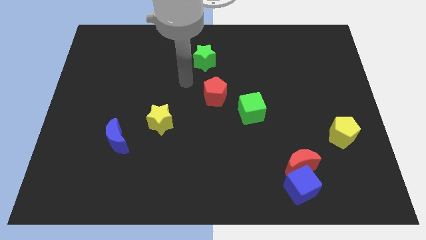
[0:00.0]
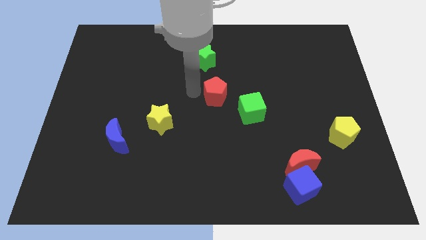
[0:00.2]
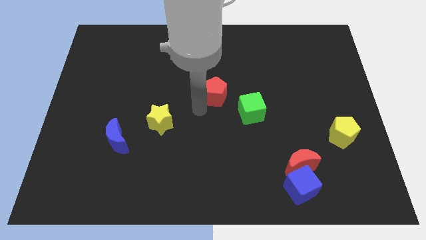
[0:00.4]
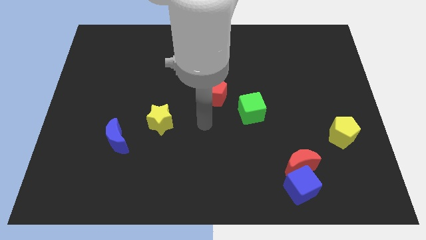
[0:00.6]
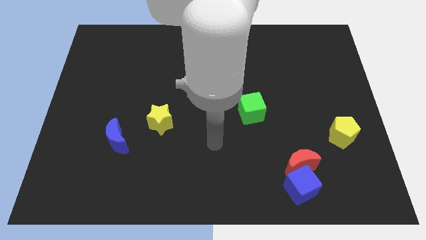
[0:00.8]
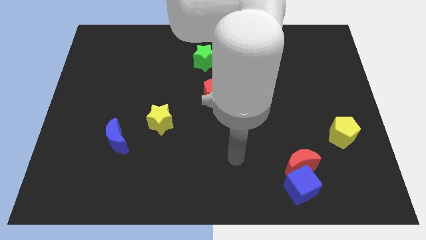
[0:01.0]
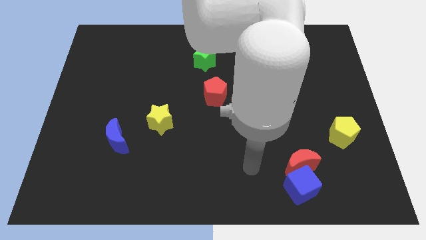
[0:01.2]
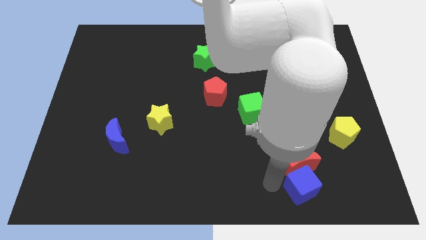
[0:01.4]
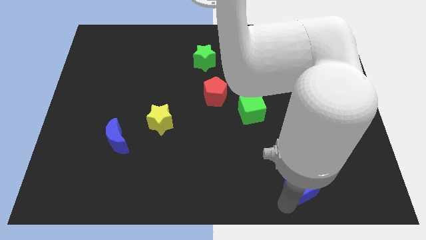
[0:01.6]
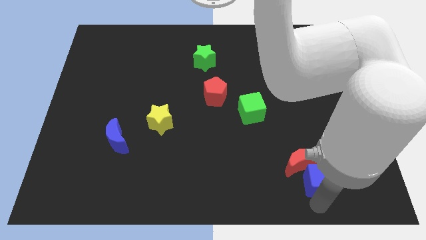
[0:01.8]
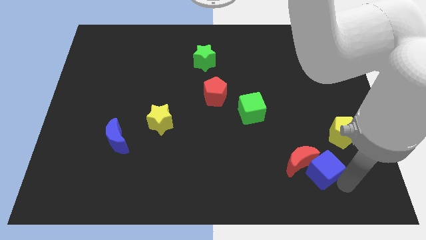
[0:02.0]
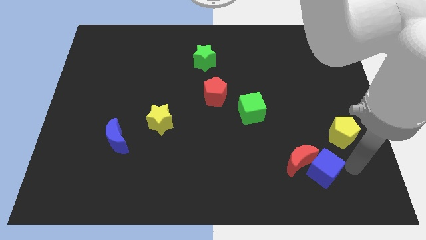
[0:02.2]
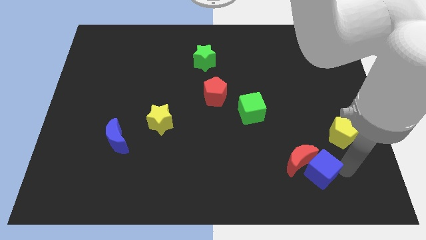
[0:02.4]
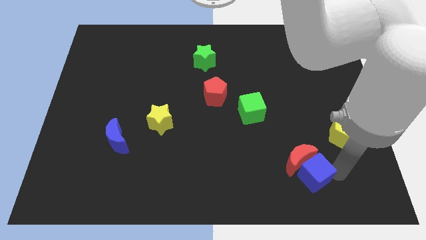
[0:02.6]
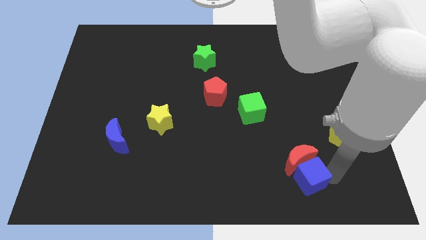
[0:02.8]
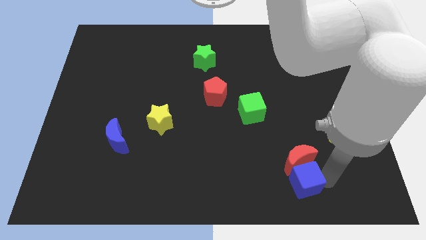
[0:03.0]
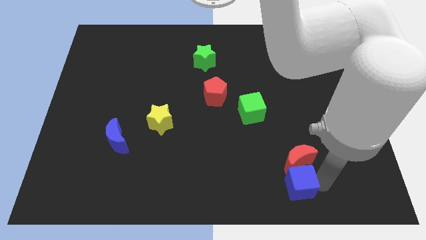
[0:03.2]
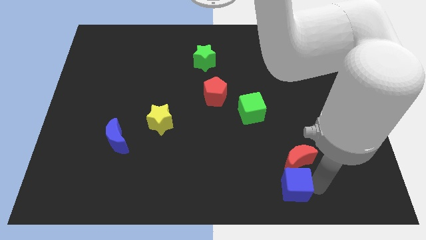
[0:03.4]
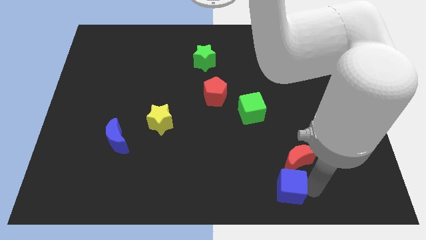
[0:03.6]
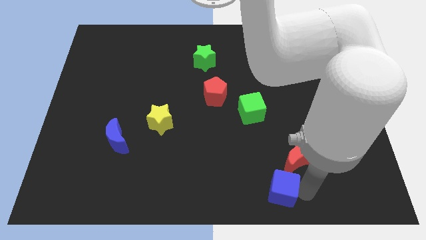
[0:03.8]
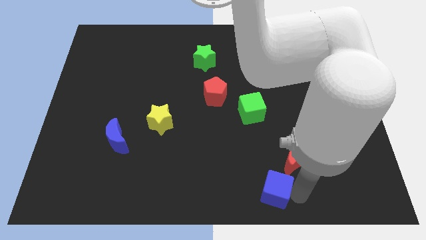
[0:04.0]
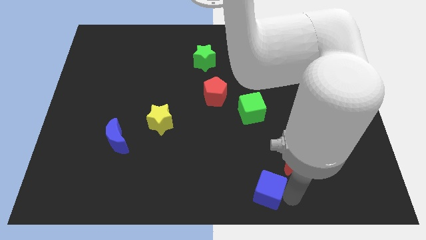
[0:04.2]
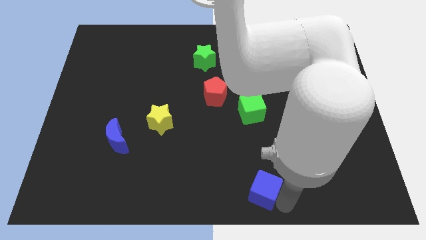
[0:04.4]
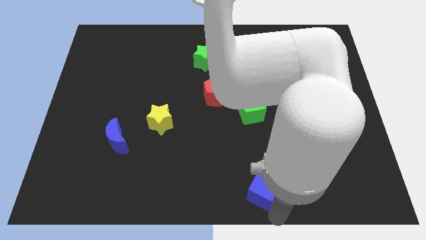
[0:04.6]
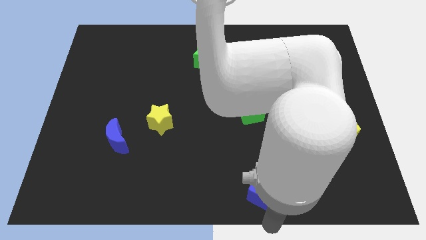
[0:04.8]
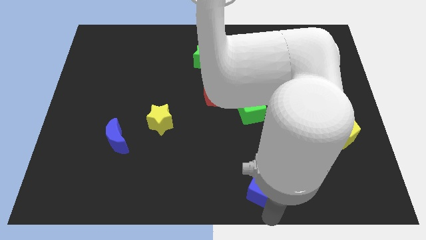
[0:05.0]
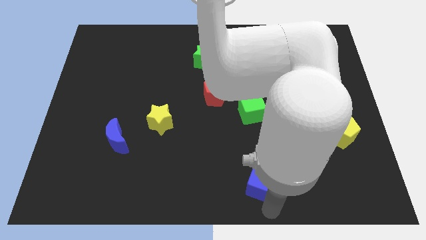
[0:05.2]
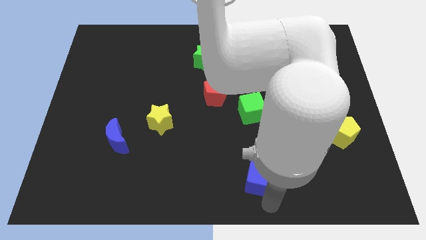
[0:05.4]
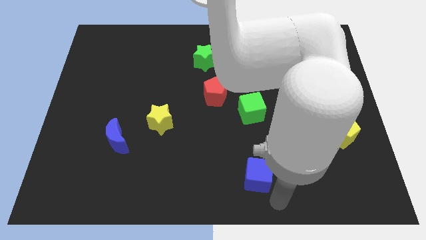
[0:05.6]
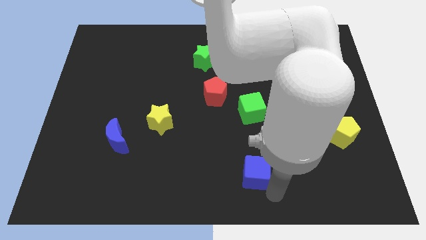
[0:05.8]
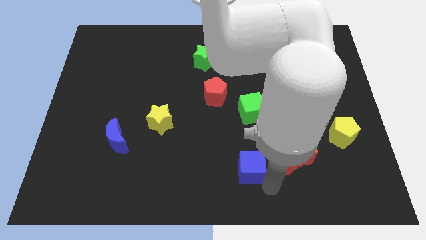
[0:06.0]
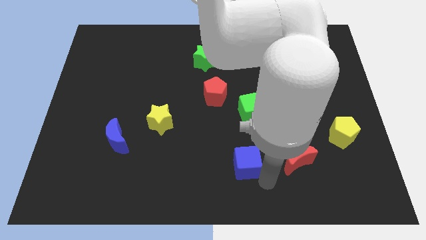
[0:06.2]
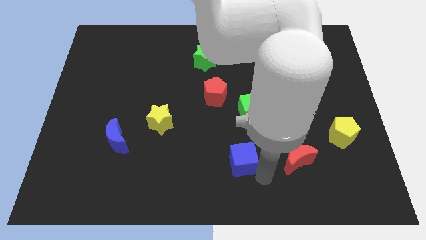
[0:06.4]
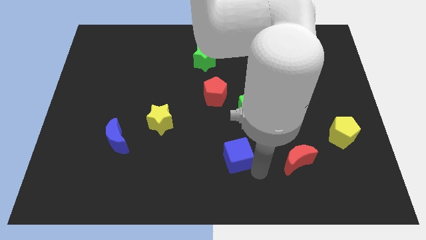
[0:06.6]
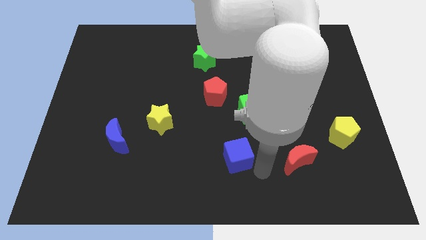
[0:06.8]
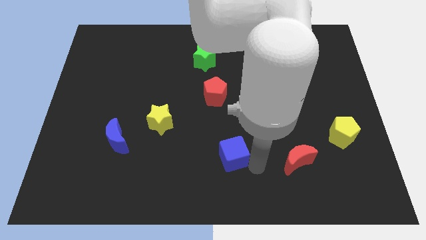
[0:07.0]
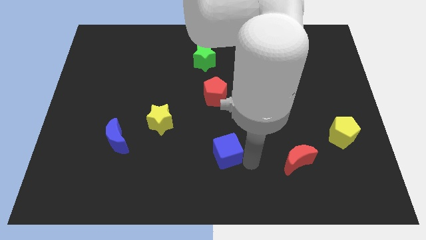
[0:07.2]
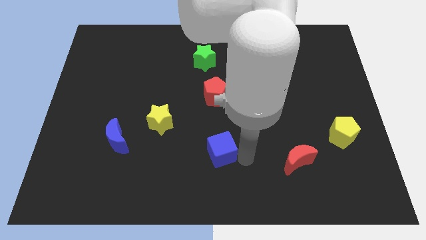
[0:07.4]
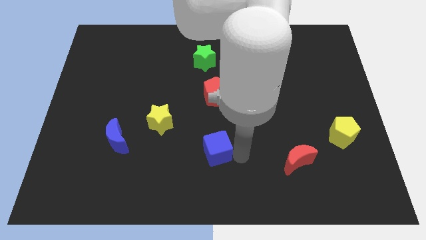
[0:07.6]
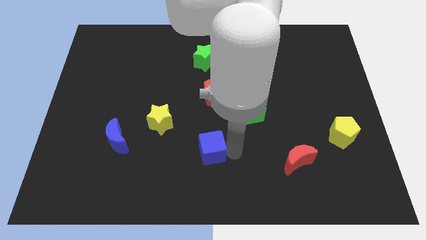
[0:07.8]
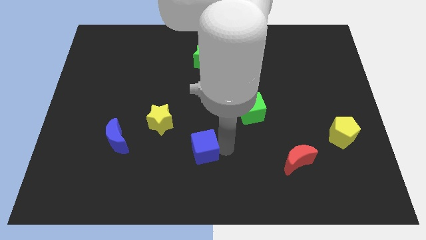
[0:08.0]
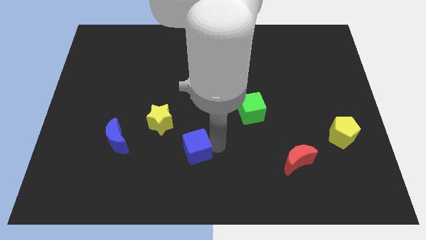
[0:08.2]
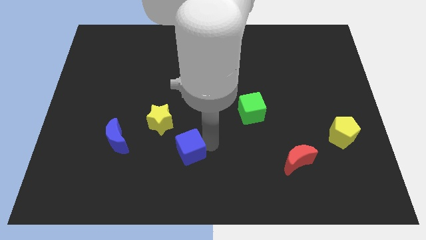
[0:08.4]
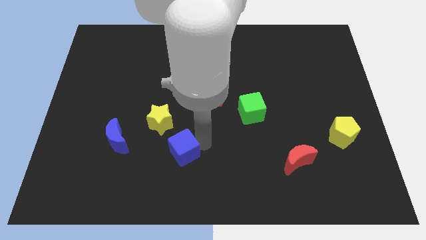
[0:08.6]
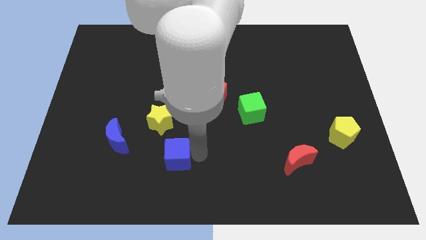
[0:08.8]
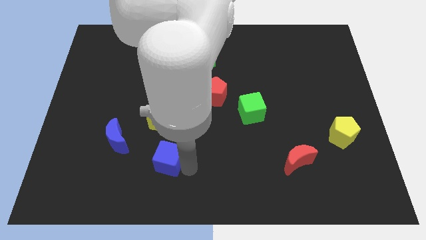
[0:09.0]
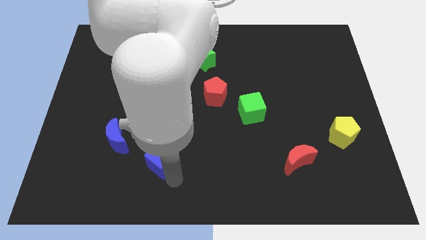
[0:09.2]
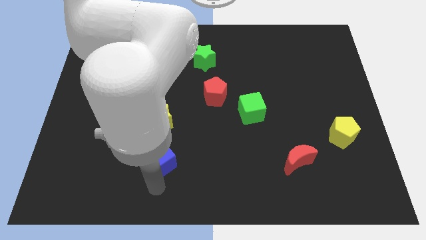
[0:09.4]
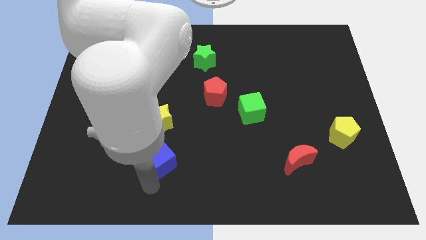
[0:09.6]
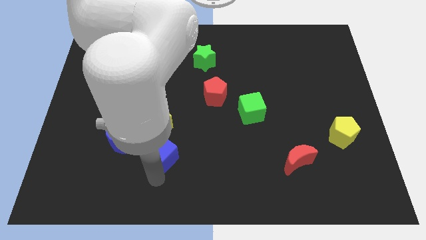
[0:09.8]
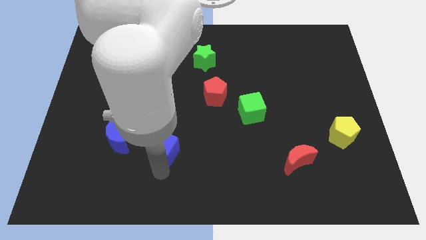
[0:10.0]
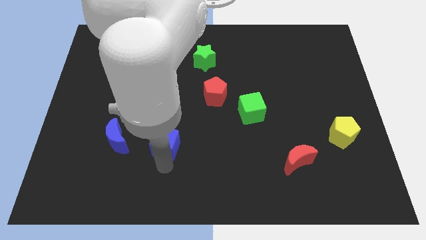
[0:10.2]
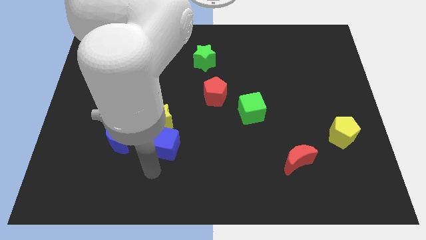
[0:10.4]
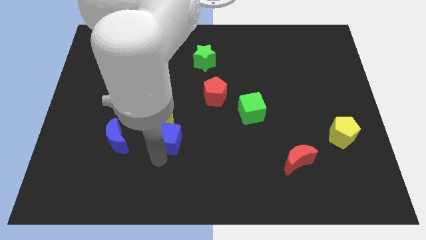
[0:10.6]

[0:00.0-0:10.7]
push the blue cube towards the yellow star

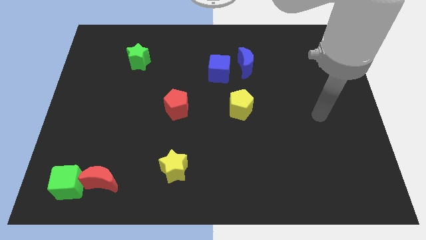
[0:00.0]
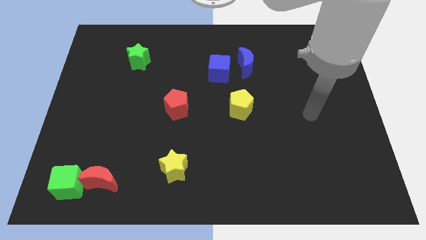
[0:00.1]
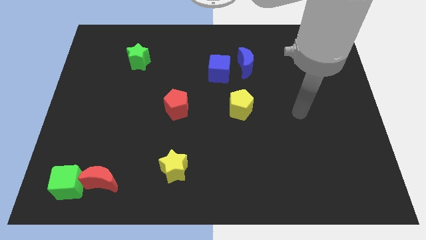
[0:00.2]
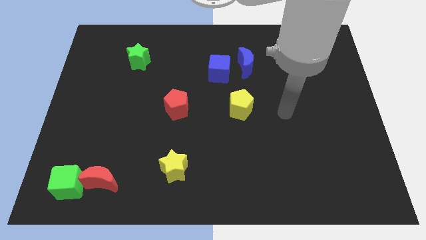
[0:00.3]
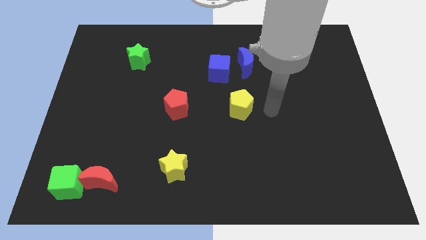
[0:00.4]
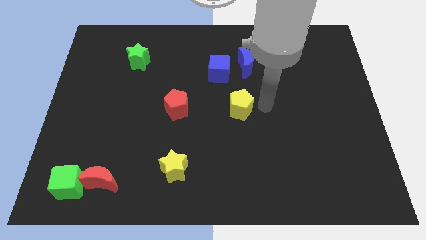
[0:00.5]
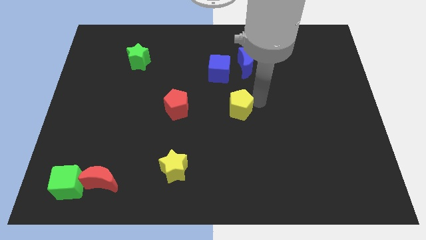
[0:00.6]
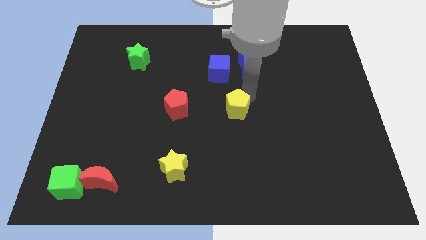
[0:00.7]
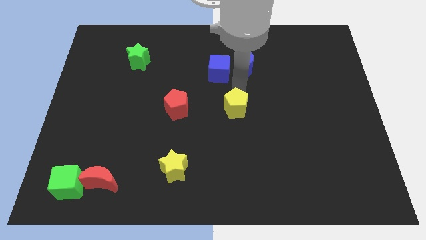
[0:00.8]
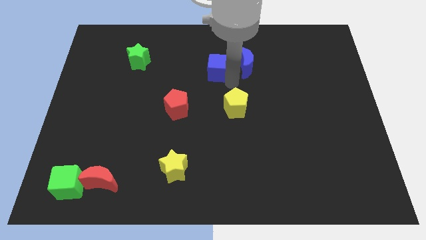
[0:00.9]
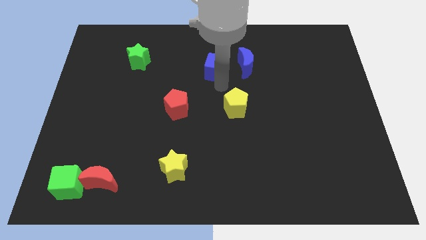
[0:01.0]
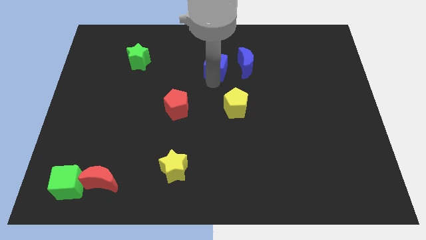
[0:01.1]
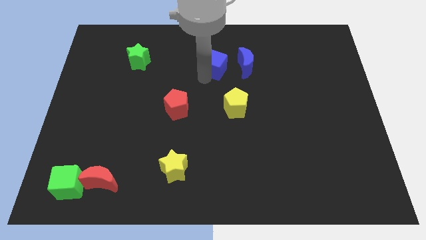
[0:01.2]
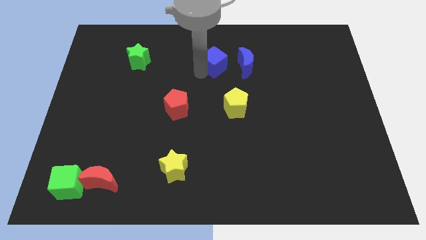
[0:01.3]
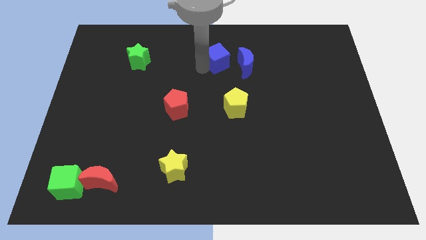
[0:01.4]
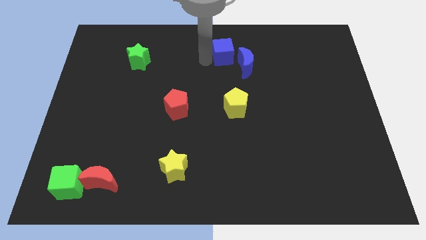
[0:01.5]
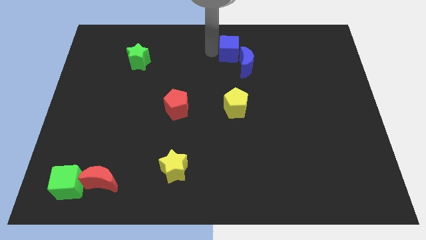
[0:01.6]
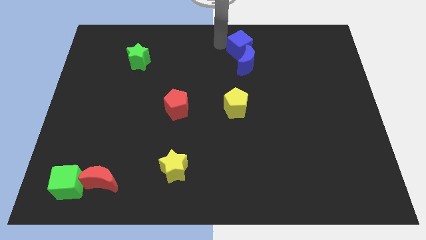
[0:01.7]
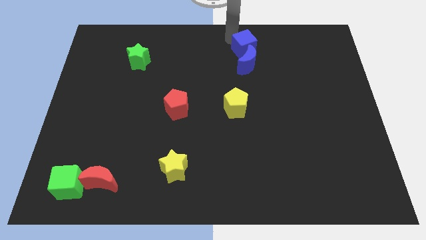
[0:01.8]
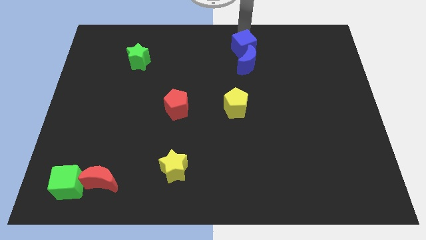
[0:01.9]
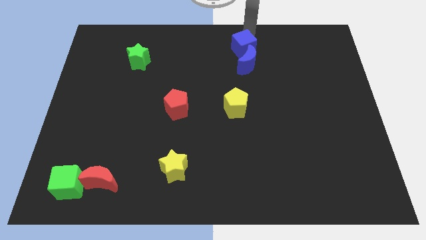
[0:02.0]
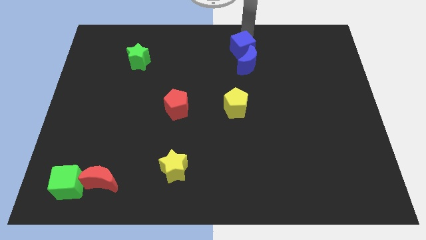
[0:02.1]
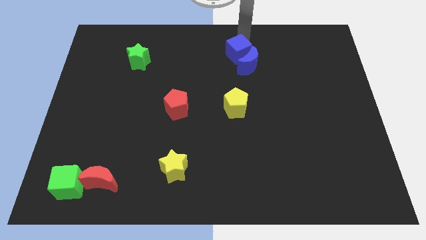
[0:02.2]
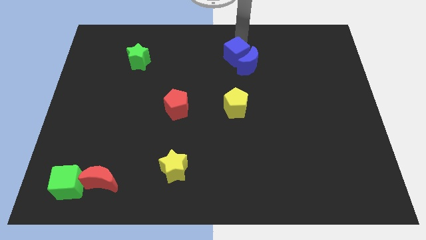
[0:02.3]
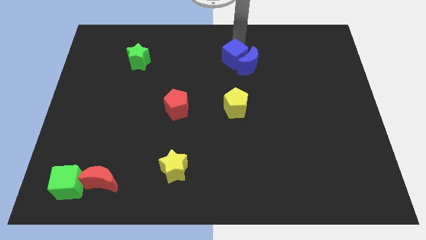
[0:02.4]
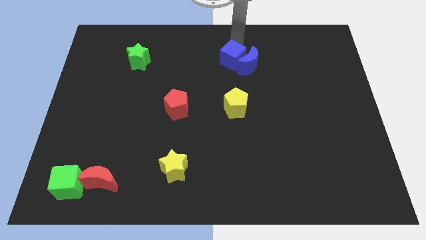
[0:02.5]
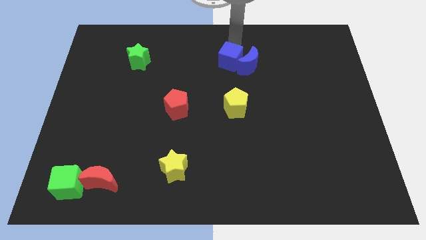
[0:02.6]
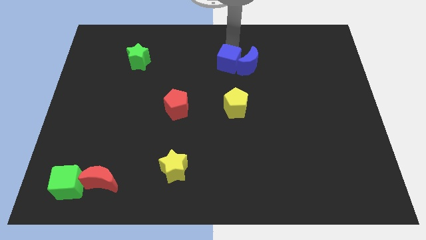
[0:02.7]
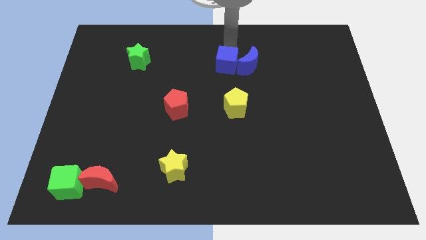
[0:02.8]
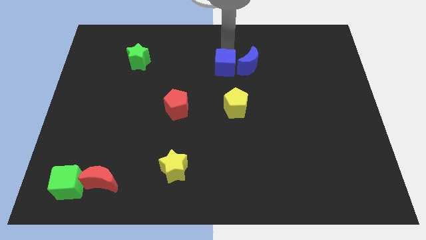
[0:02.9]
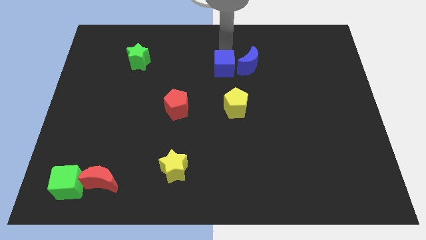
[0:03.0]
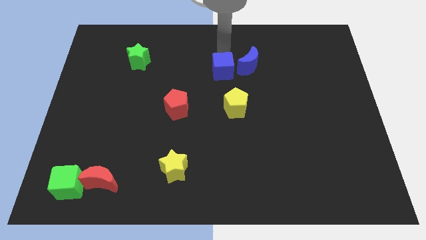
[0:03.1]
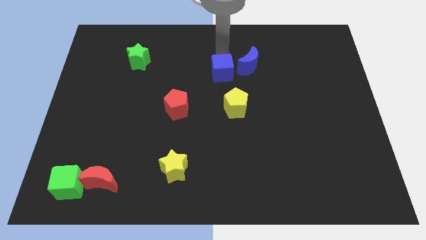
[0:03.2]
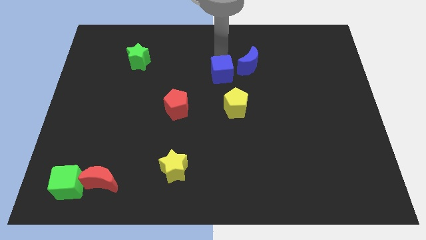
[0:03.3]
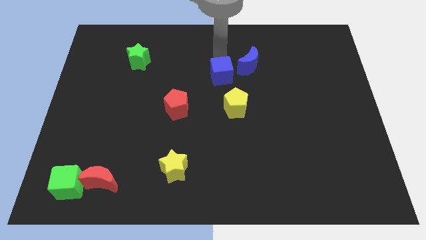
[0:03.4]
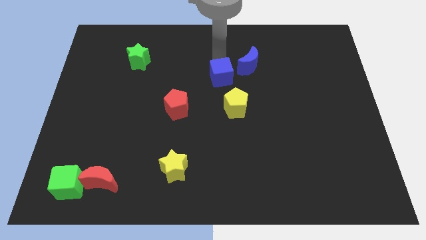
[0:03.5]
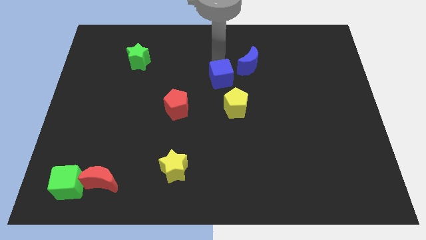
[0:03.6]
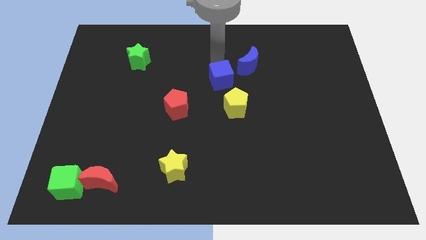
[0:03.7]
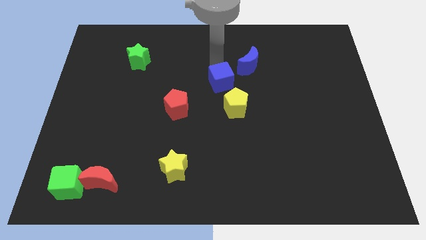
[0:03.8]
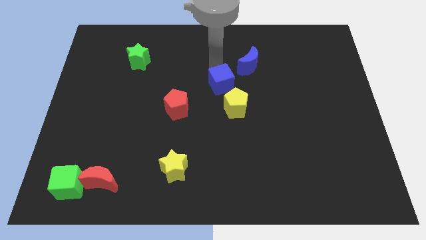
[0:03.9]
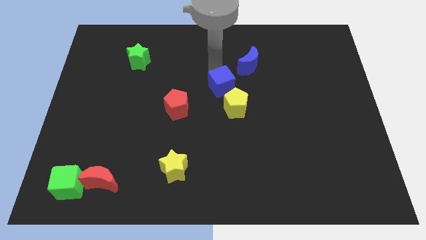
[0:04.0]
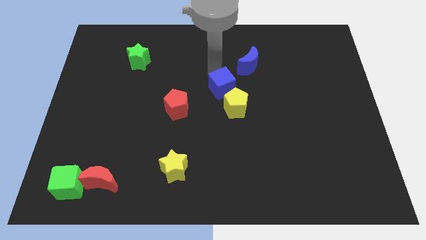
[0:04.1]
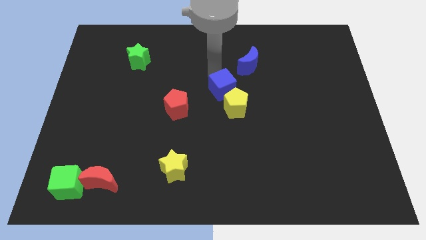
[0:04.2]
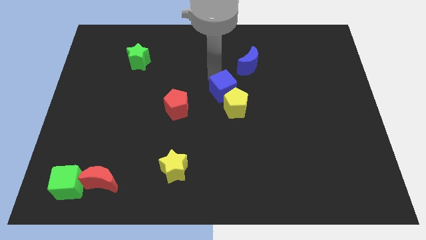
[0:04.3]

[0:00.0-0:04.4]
push the blue cube to the yellow pentagon
